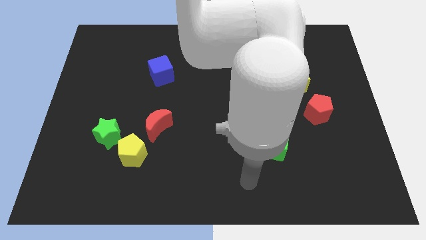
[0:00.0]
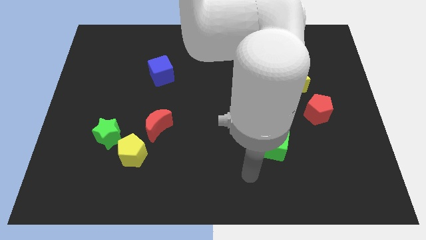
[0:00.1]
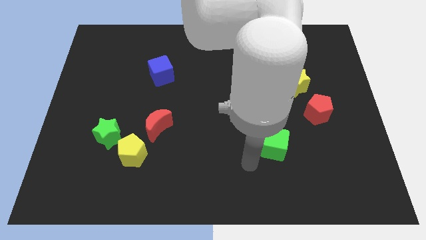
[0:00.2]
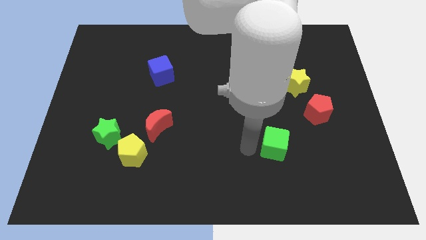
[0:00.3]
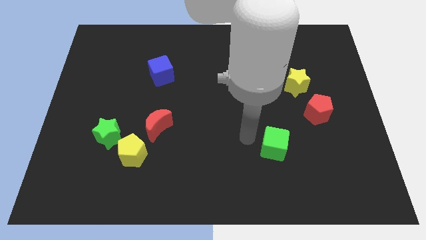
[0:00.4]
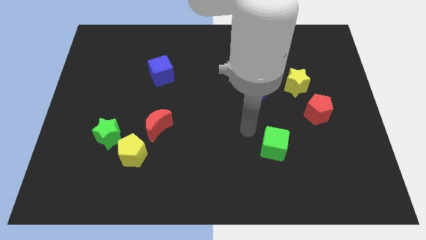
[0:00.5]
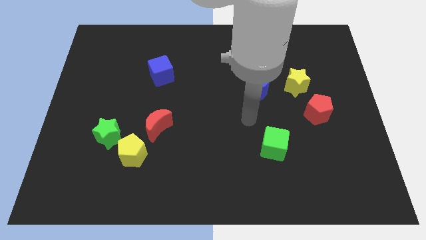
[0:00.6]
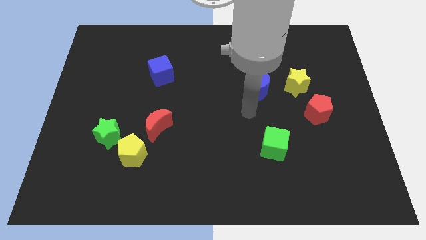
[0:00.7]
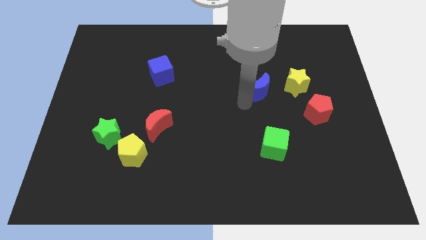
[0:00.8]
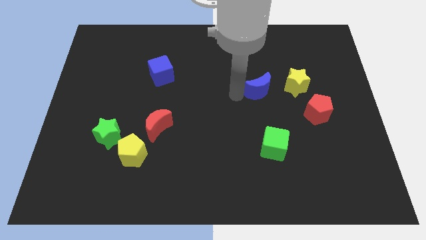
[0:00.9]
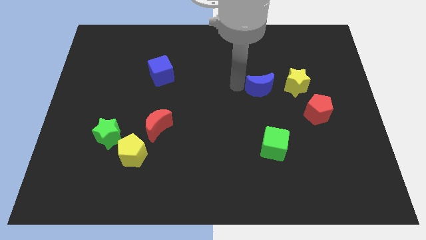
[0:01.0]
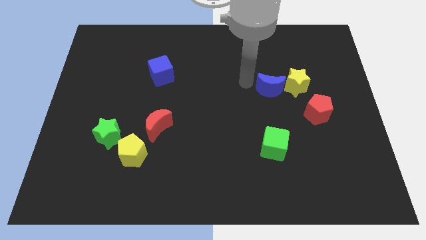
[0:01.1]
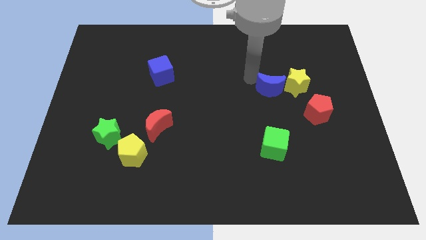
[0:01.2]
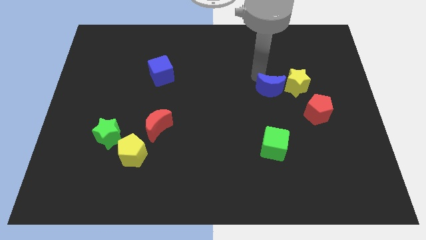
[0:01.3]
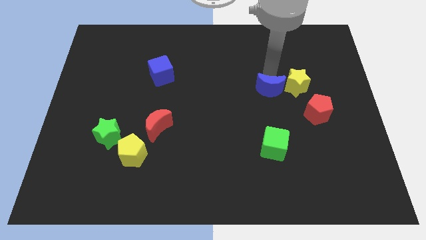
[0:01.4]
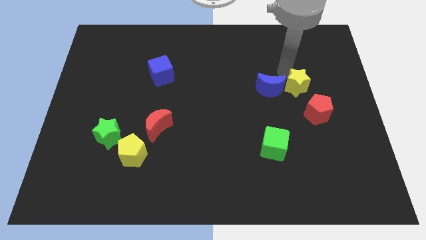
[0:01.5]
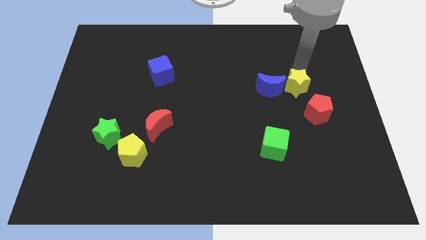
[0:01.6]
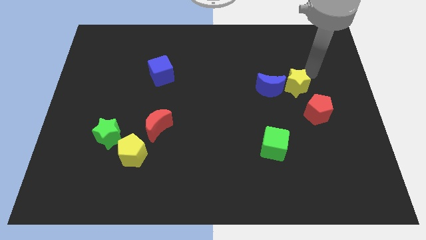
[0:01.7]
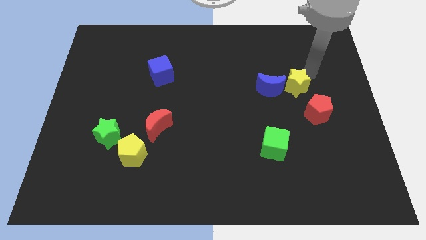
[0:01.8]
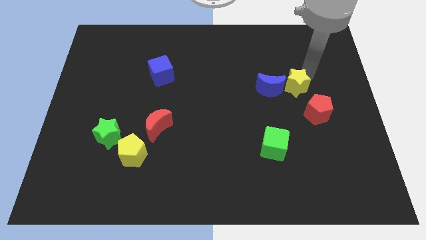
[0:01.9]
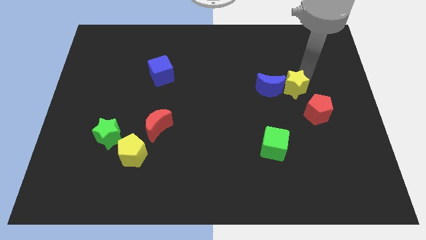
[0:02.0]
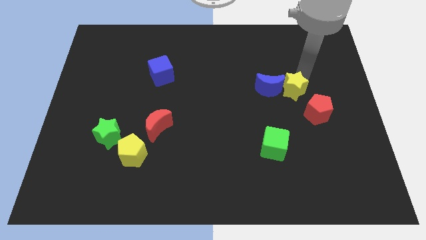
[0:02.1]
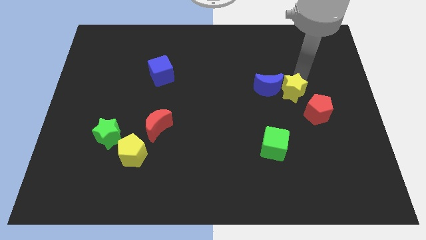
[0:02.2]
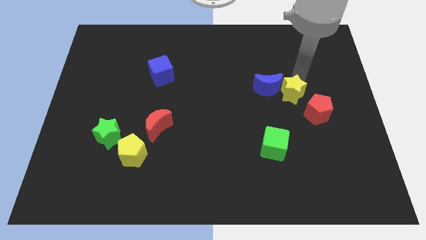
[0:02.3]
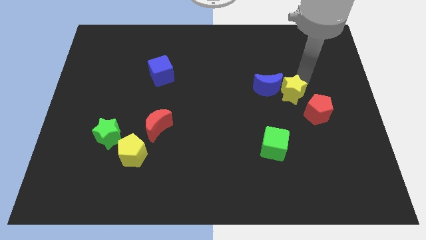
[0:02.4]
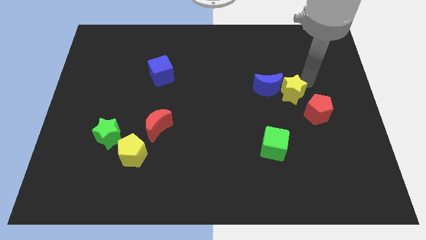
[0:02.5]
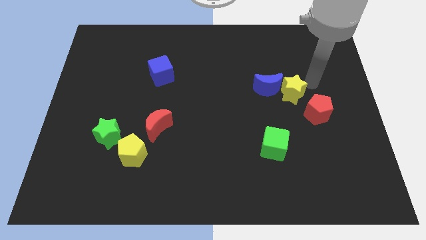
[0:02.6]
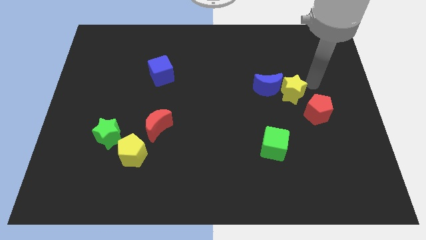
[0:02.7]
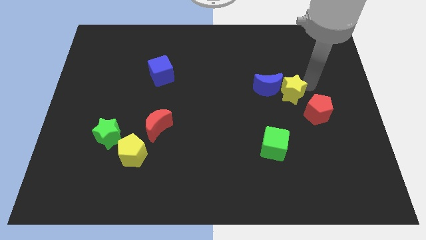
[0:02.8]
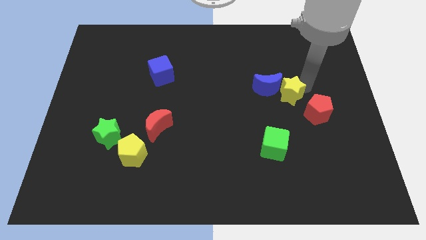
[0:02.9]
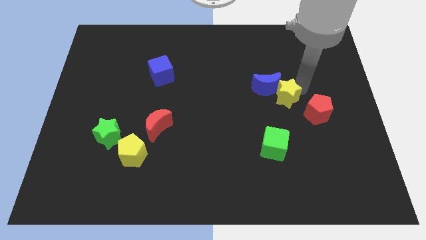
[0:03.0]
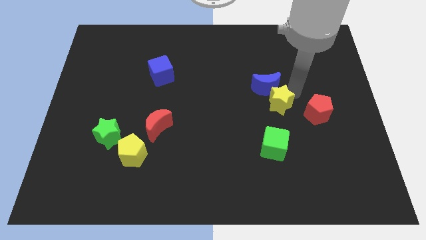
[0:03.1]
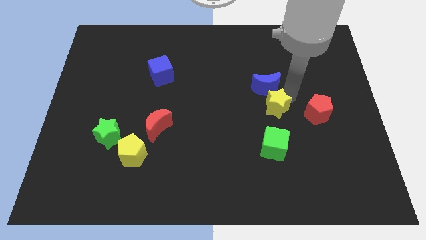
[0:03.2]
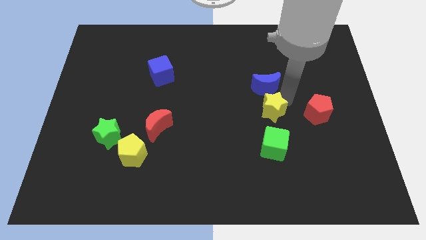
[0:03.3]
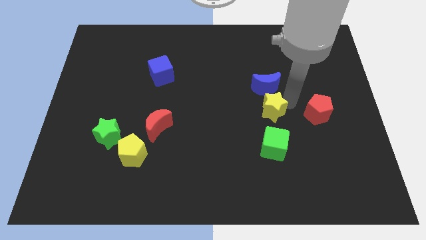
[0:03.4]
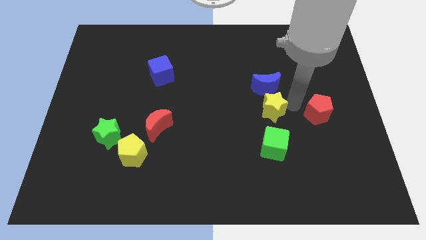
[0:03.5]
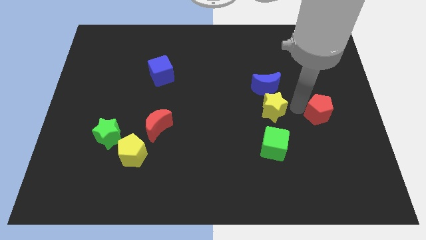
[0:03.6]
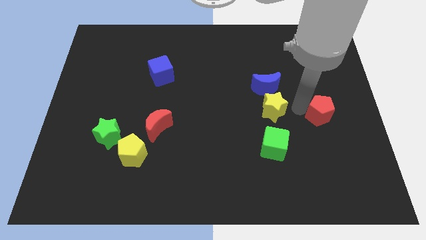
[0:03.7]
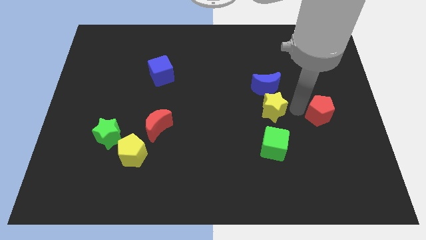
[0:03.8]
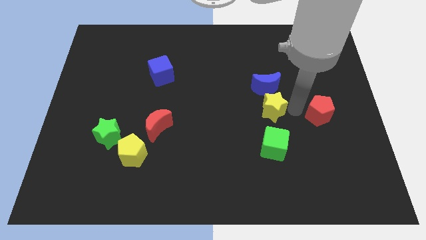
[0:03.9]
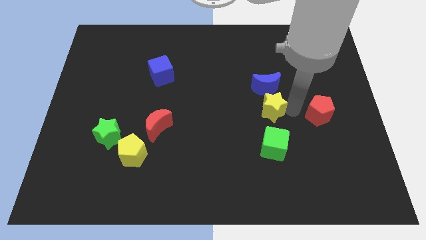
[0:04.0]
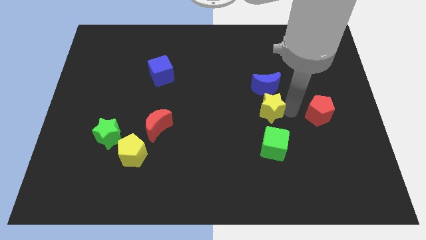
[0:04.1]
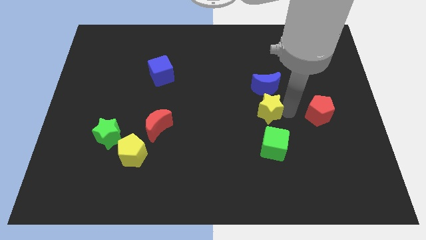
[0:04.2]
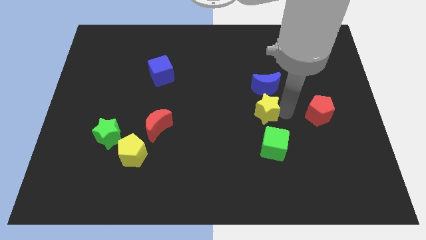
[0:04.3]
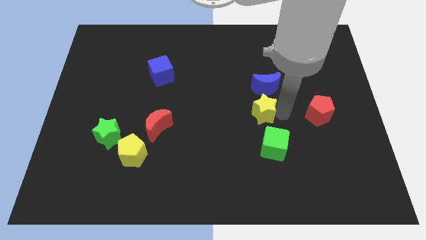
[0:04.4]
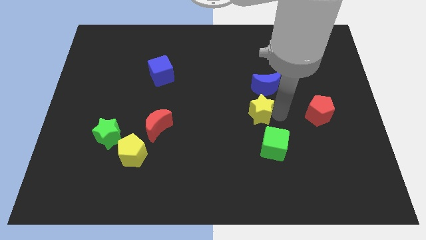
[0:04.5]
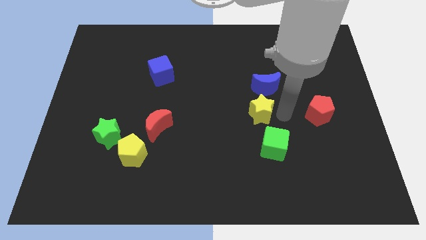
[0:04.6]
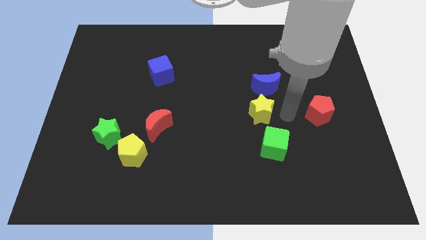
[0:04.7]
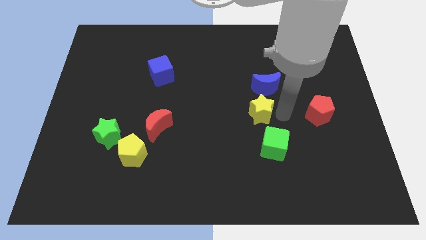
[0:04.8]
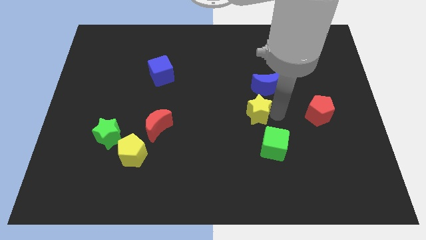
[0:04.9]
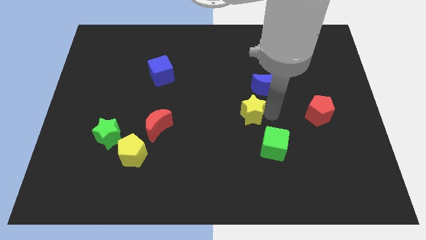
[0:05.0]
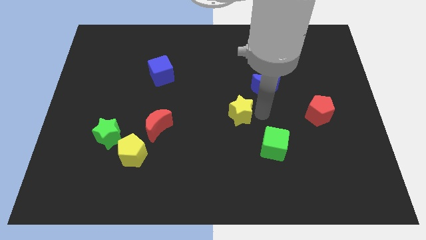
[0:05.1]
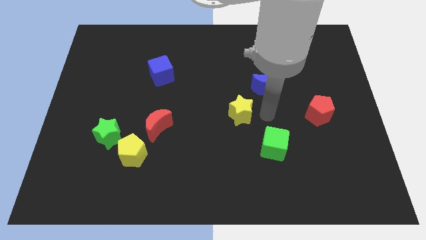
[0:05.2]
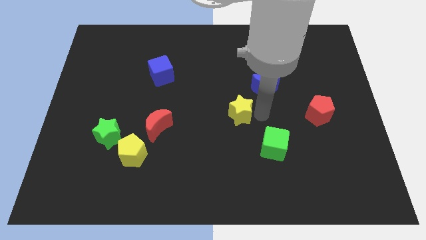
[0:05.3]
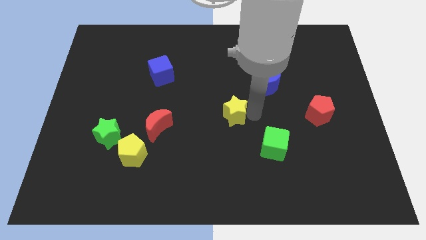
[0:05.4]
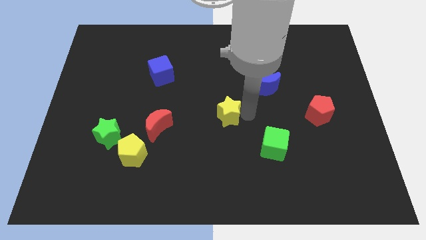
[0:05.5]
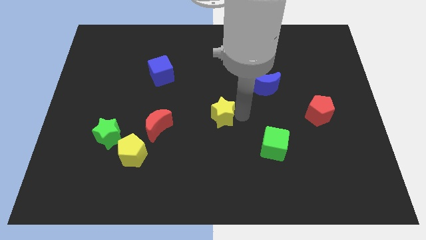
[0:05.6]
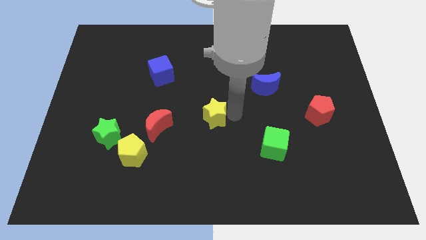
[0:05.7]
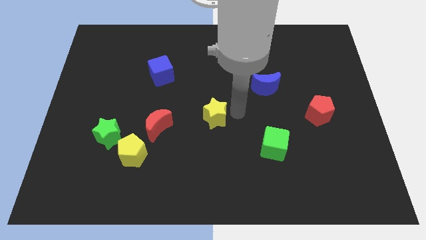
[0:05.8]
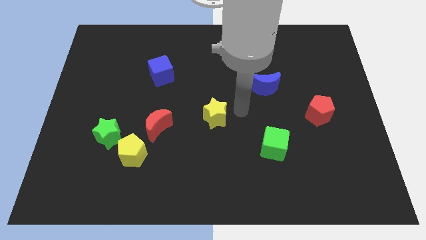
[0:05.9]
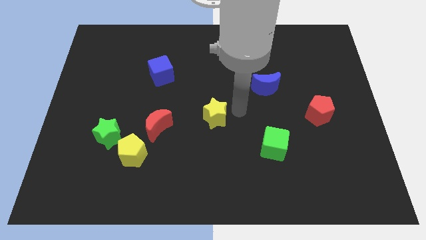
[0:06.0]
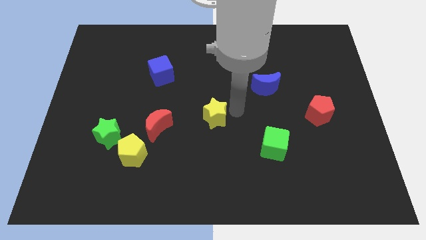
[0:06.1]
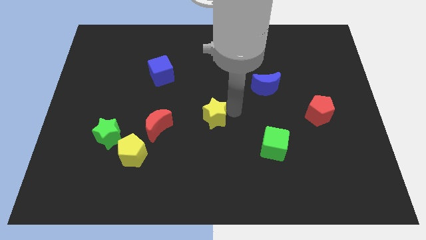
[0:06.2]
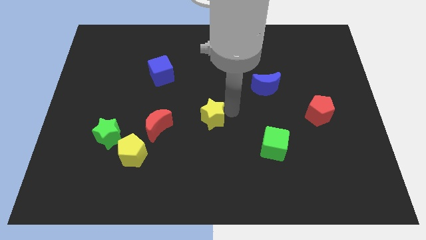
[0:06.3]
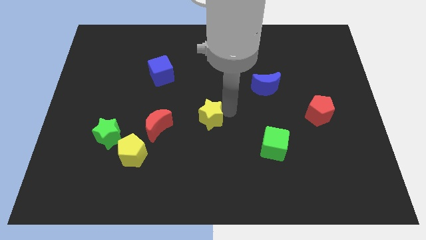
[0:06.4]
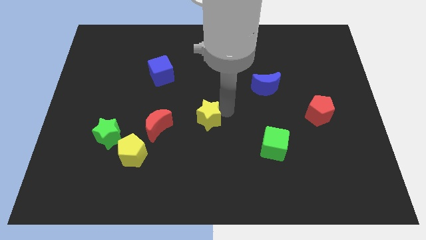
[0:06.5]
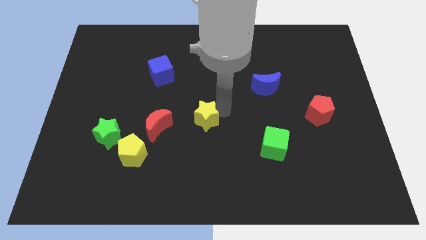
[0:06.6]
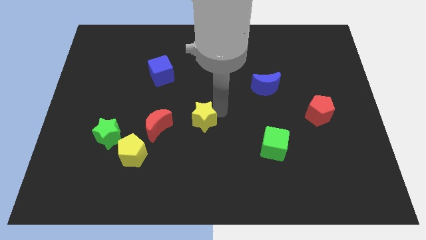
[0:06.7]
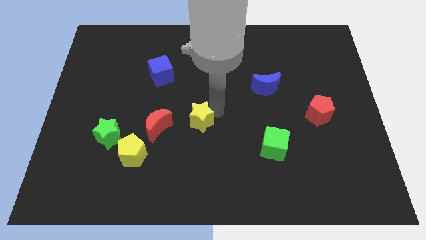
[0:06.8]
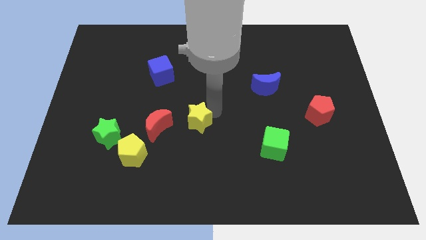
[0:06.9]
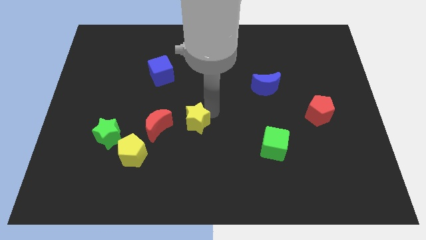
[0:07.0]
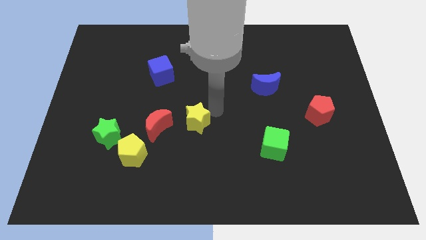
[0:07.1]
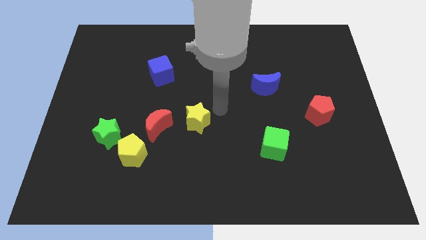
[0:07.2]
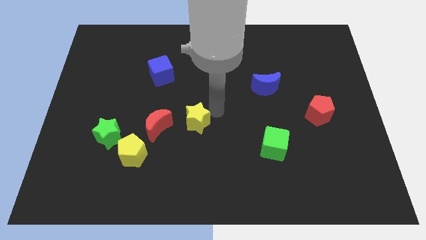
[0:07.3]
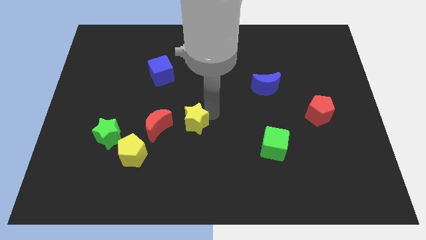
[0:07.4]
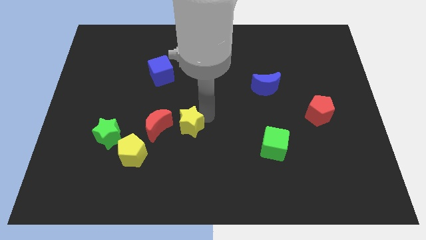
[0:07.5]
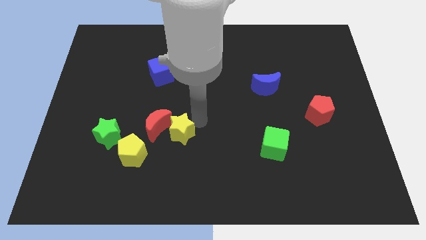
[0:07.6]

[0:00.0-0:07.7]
move the yellow star to the right side of the green star
